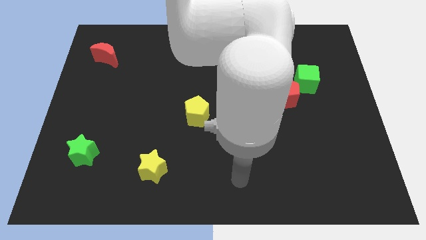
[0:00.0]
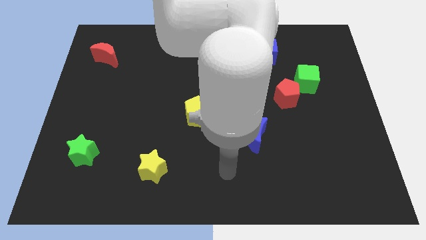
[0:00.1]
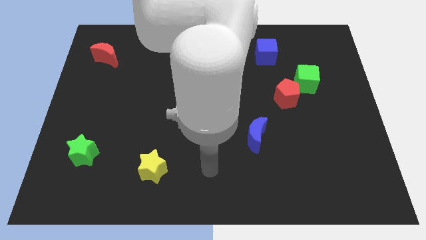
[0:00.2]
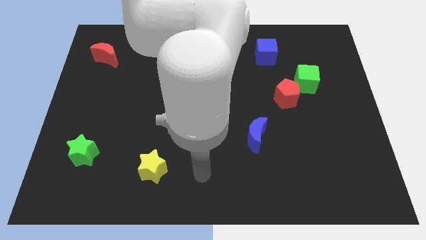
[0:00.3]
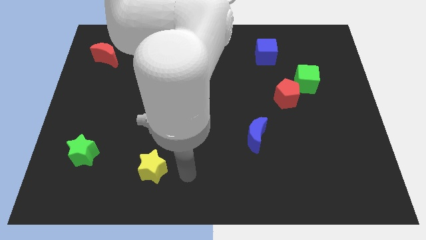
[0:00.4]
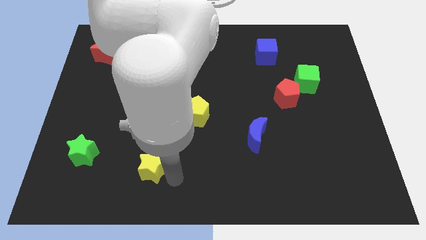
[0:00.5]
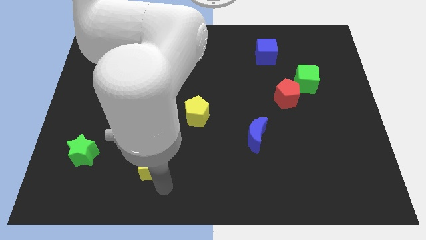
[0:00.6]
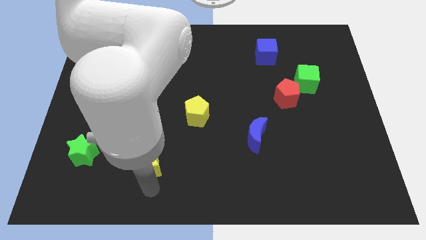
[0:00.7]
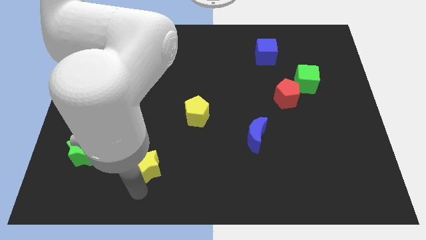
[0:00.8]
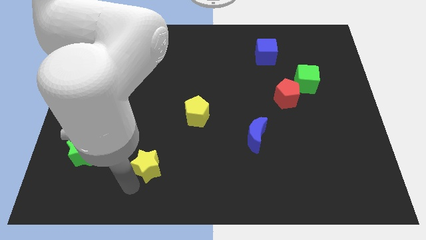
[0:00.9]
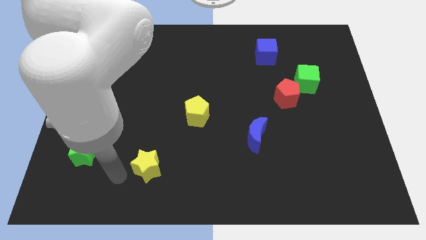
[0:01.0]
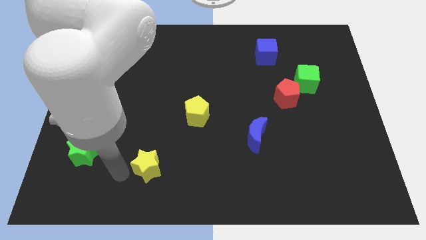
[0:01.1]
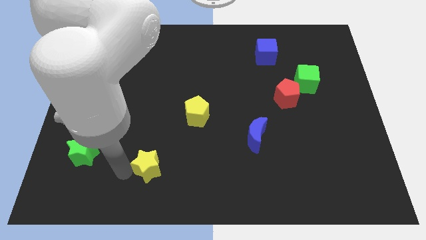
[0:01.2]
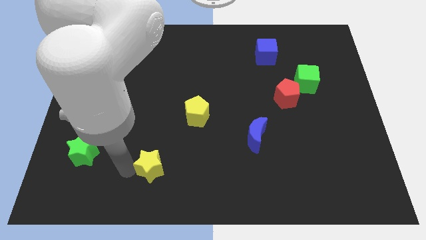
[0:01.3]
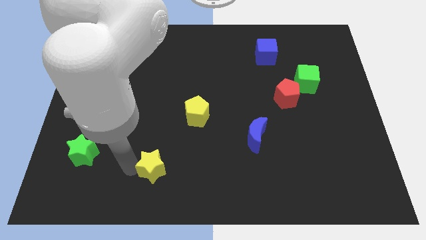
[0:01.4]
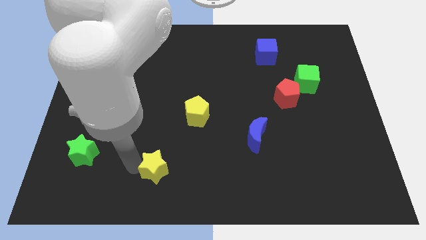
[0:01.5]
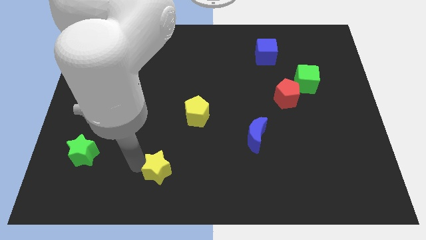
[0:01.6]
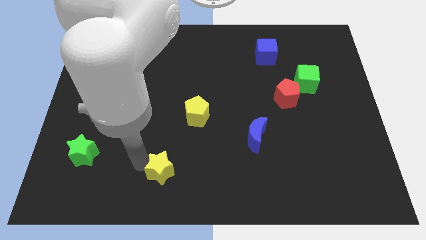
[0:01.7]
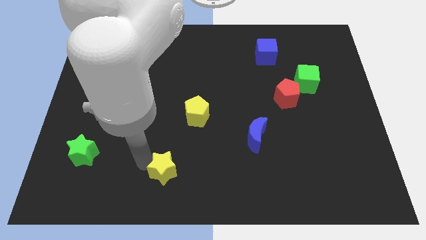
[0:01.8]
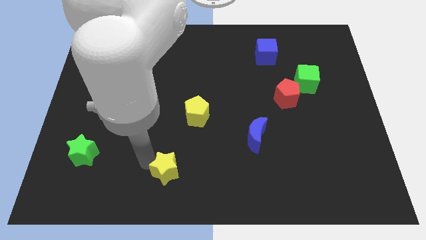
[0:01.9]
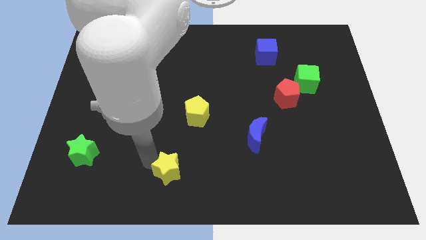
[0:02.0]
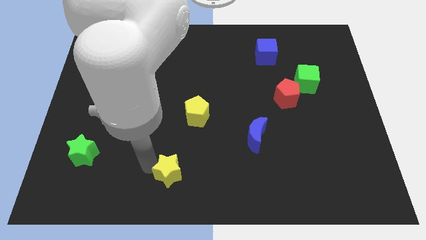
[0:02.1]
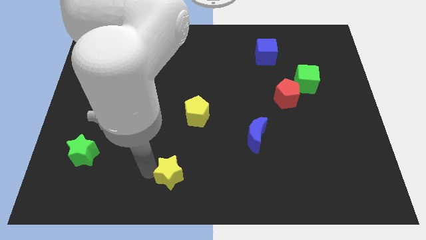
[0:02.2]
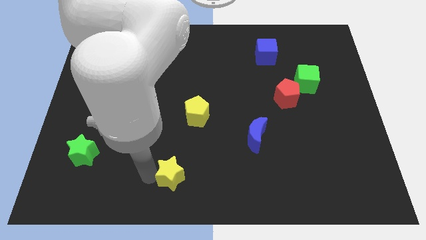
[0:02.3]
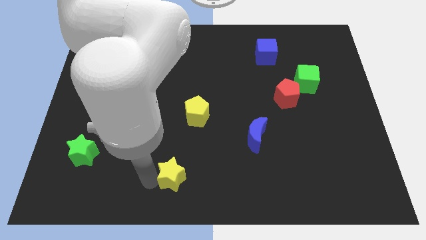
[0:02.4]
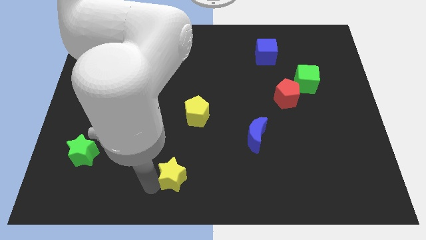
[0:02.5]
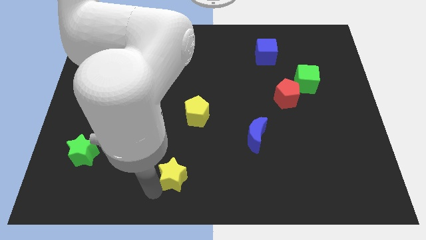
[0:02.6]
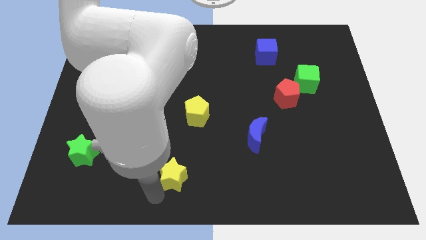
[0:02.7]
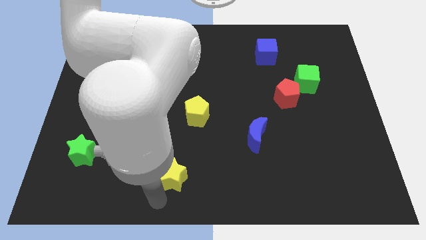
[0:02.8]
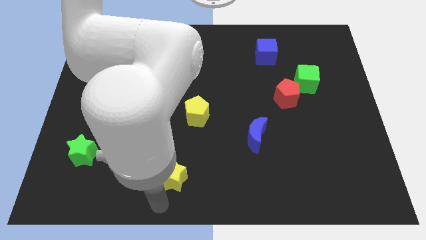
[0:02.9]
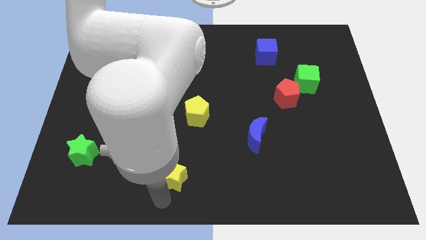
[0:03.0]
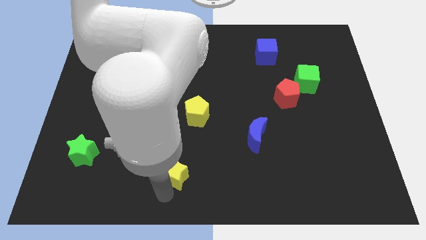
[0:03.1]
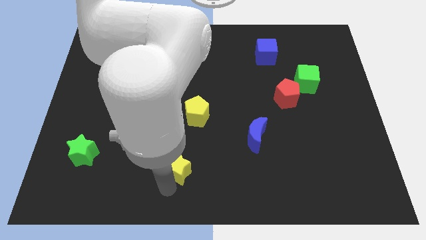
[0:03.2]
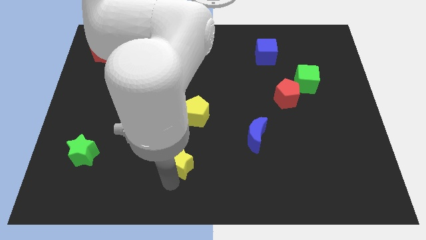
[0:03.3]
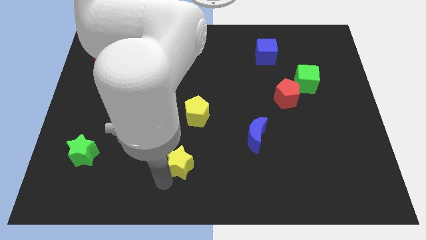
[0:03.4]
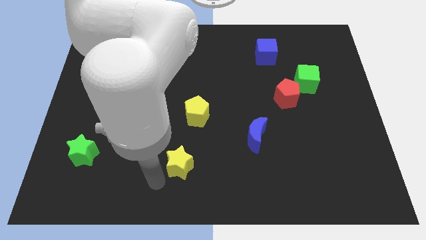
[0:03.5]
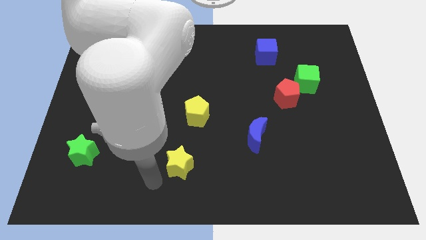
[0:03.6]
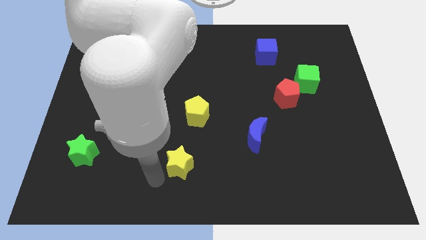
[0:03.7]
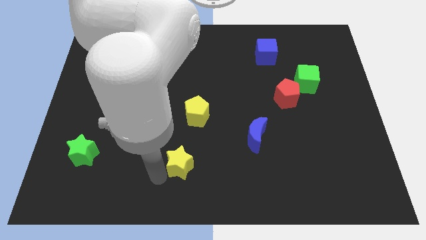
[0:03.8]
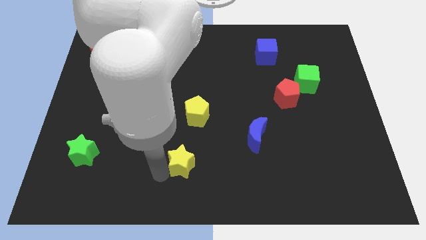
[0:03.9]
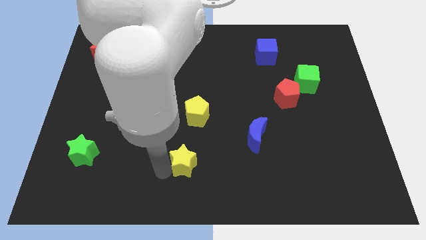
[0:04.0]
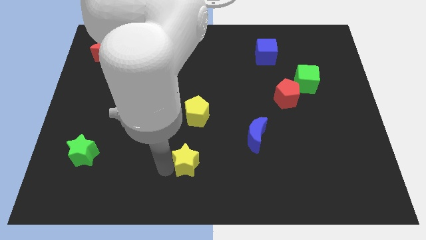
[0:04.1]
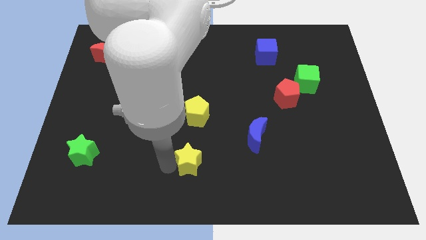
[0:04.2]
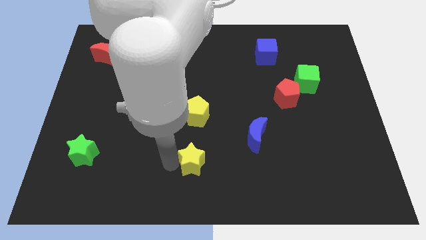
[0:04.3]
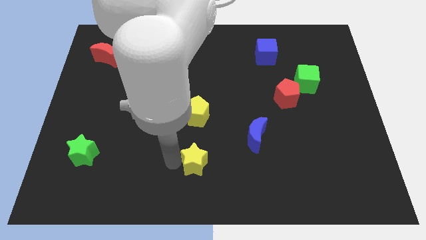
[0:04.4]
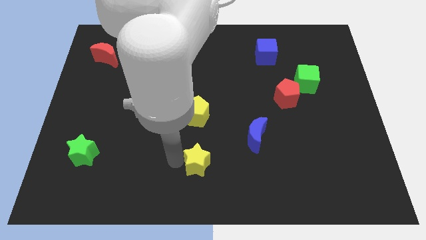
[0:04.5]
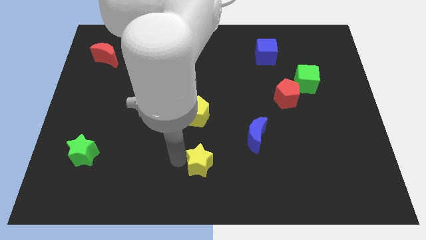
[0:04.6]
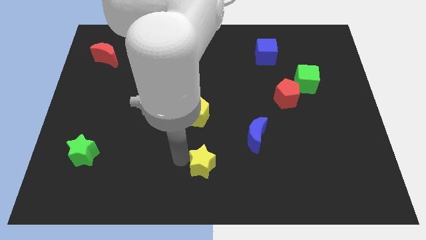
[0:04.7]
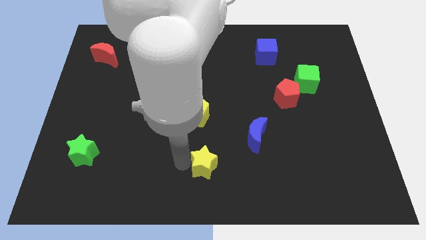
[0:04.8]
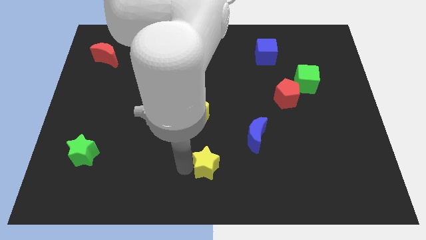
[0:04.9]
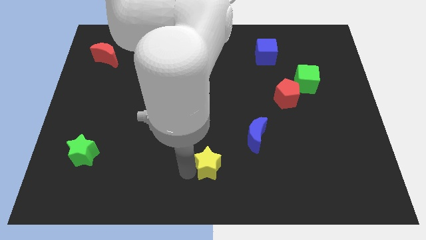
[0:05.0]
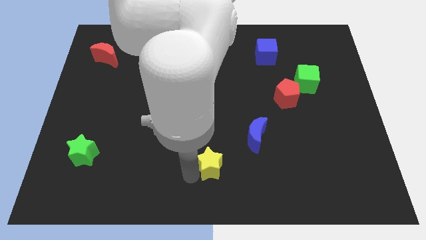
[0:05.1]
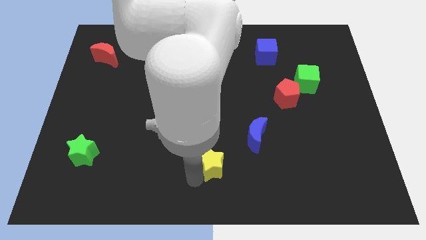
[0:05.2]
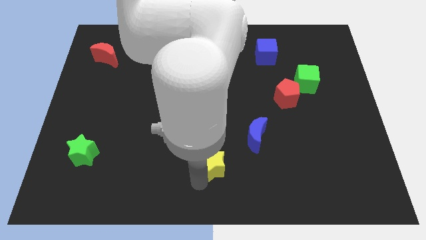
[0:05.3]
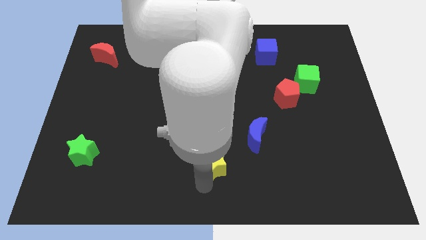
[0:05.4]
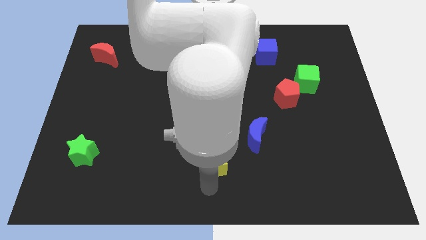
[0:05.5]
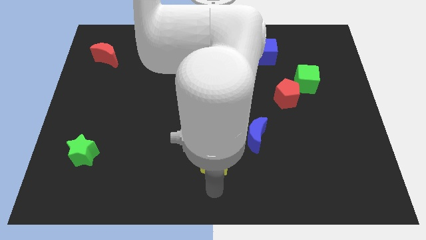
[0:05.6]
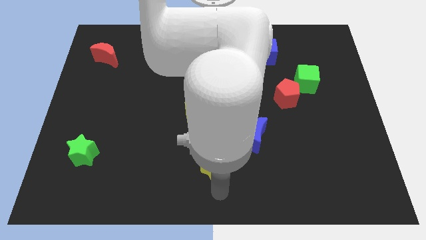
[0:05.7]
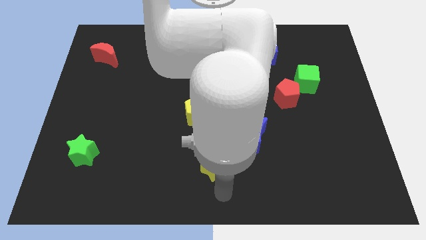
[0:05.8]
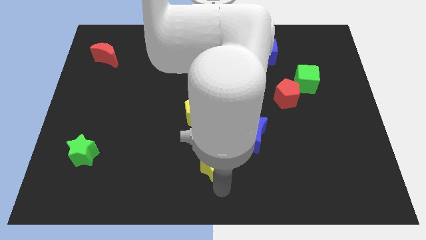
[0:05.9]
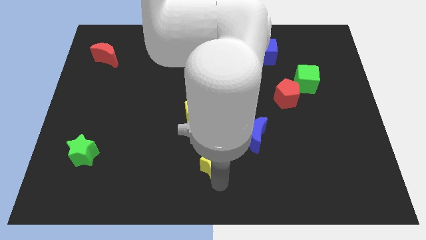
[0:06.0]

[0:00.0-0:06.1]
slightly move the yellow star diagonally upwards and to the right

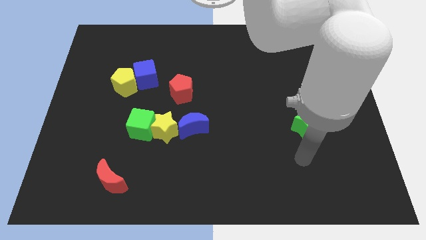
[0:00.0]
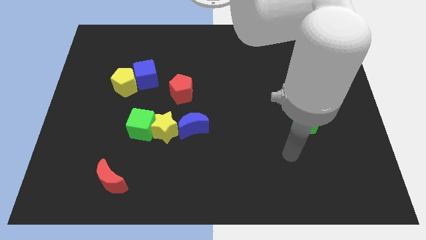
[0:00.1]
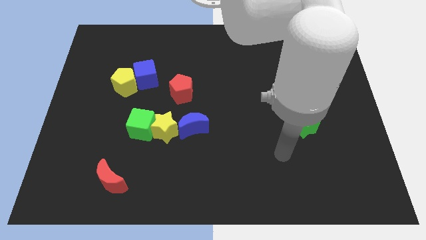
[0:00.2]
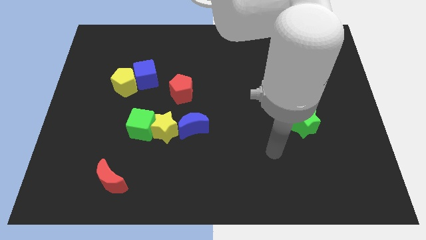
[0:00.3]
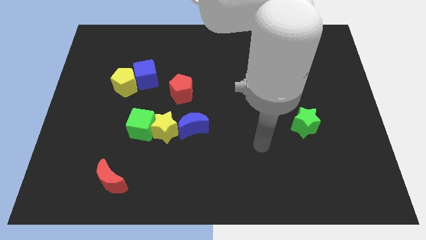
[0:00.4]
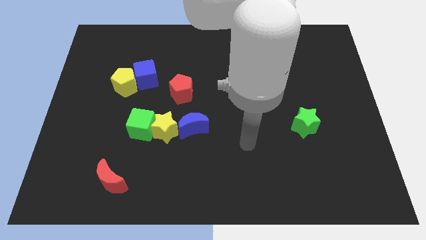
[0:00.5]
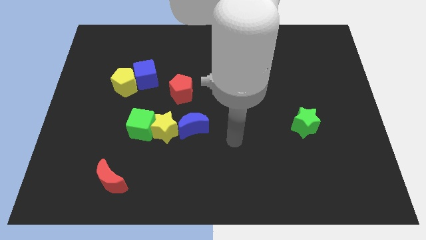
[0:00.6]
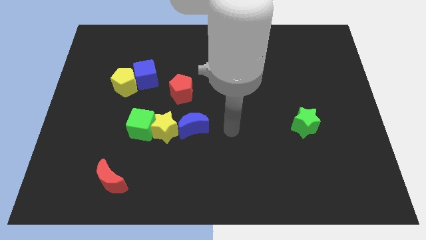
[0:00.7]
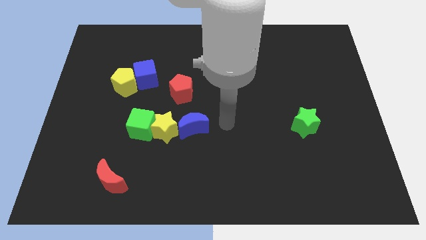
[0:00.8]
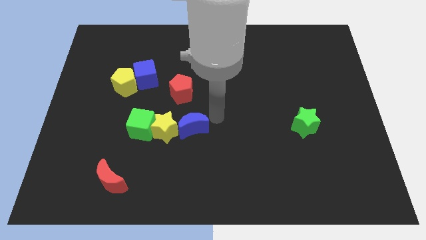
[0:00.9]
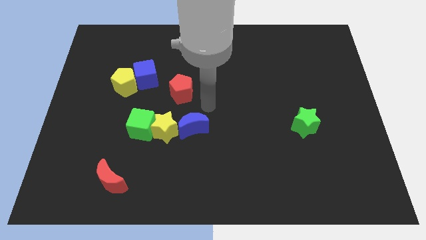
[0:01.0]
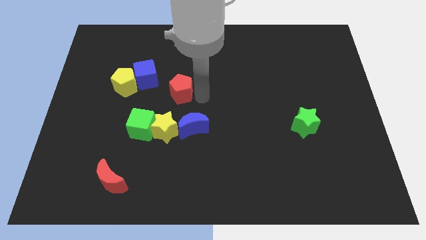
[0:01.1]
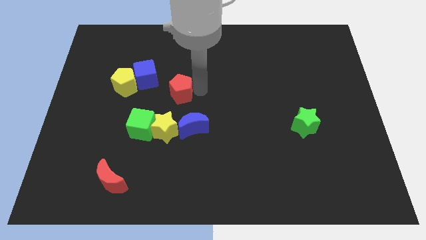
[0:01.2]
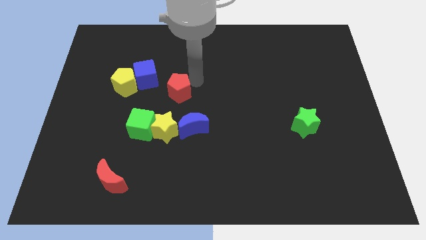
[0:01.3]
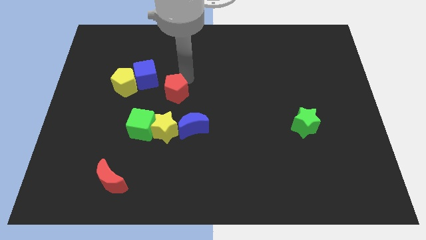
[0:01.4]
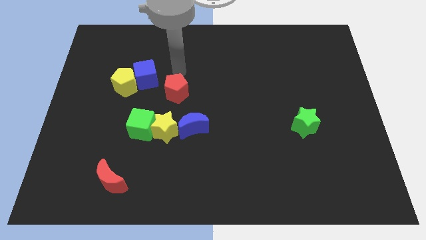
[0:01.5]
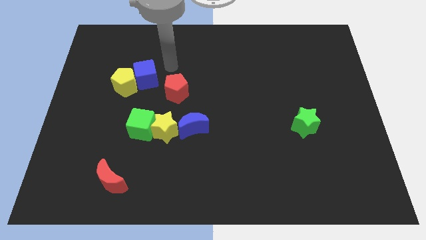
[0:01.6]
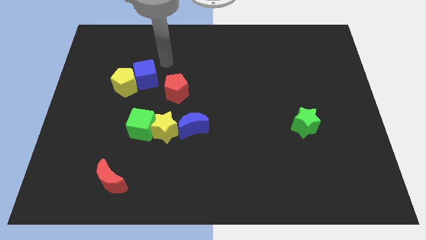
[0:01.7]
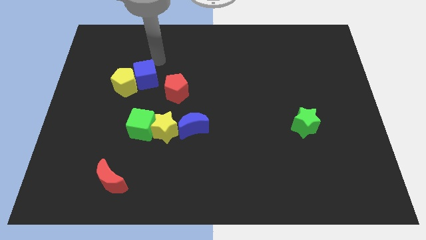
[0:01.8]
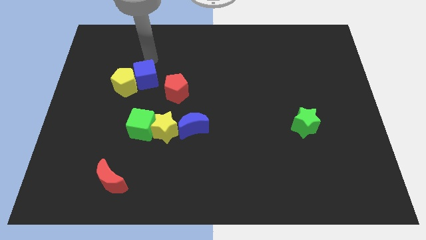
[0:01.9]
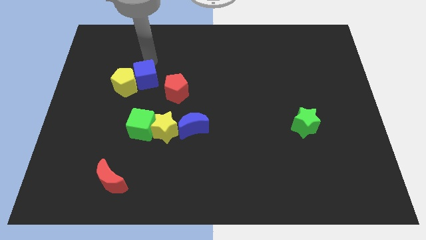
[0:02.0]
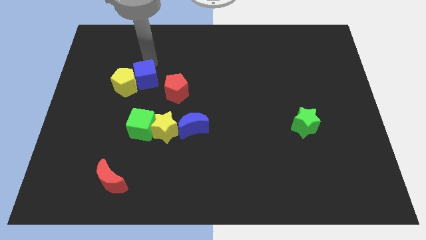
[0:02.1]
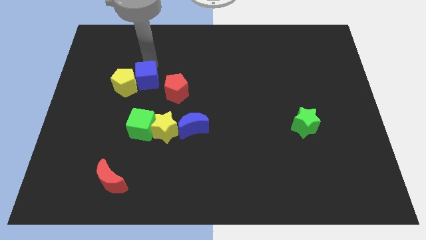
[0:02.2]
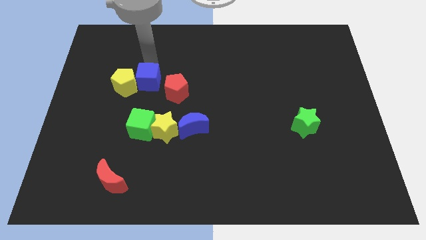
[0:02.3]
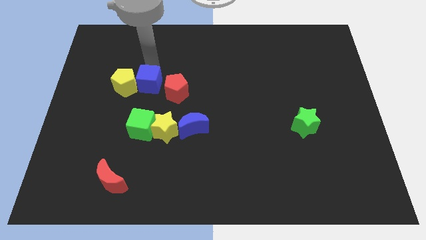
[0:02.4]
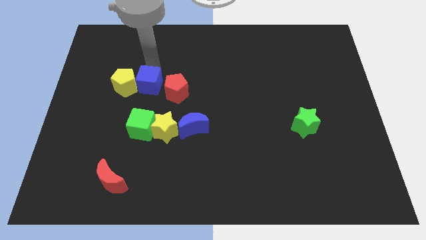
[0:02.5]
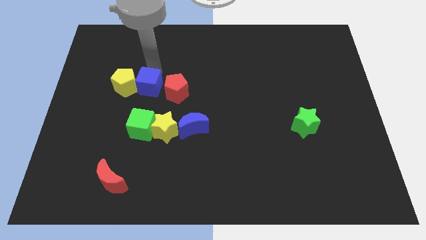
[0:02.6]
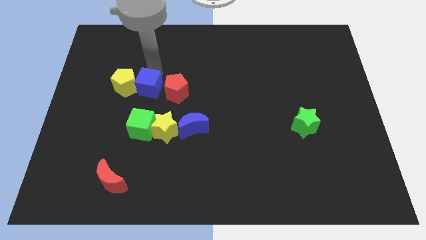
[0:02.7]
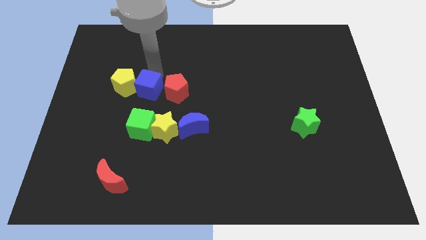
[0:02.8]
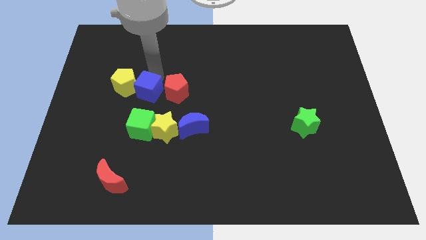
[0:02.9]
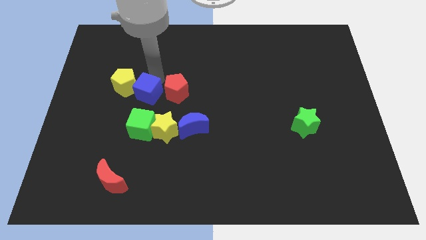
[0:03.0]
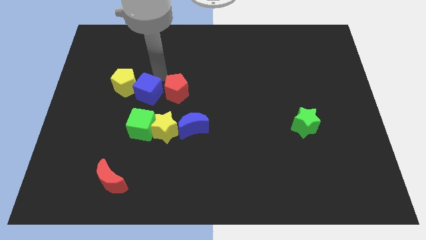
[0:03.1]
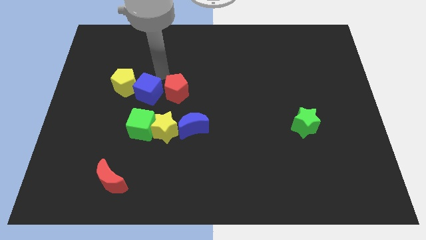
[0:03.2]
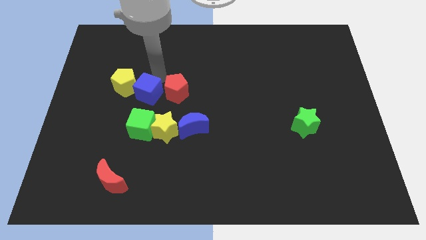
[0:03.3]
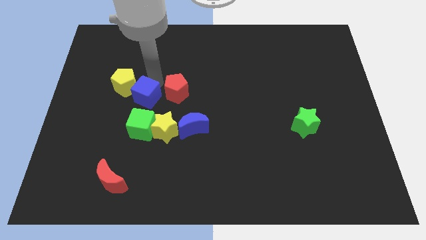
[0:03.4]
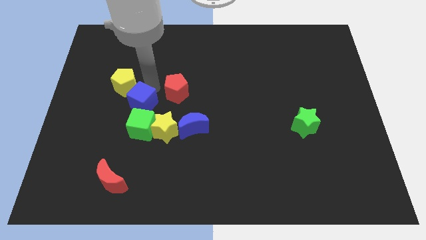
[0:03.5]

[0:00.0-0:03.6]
slightly slide the blue cube down
